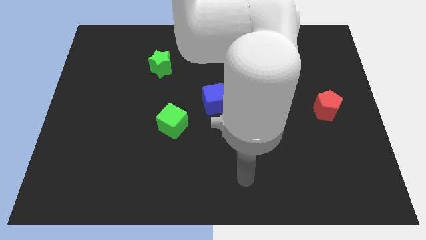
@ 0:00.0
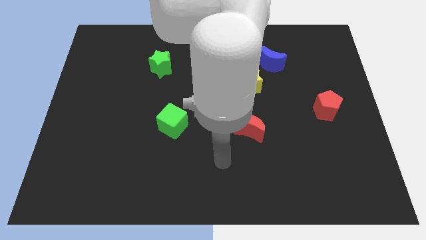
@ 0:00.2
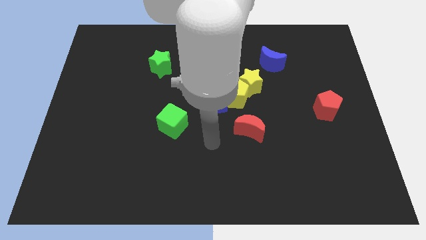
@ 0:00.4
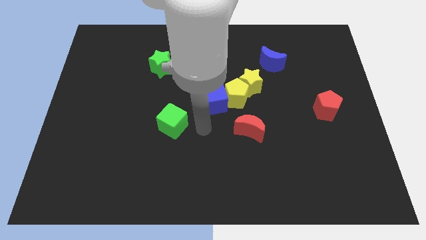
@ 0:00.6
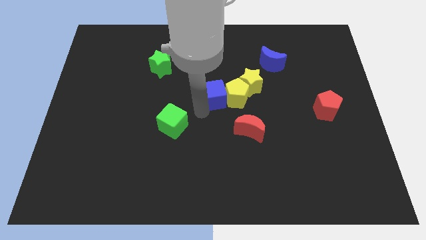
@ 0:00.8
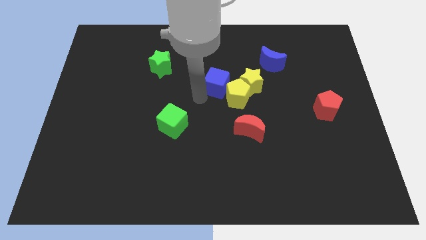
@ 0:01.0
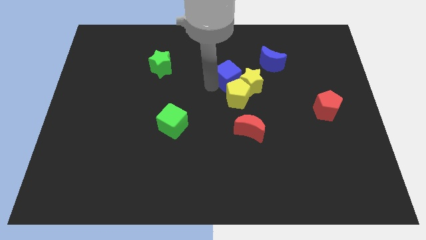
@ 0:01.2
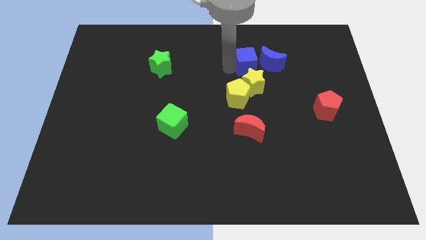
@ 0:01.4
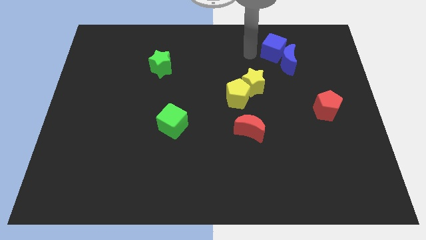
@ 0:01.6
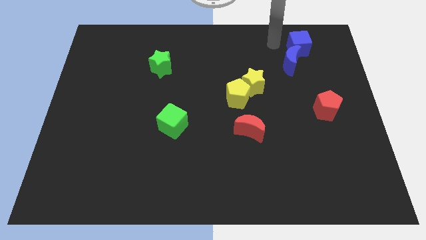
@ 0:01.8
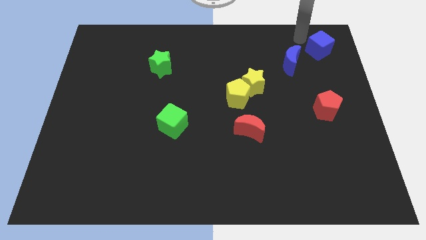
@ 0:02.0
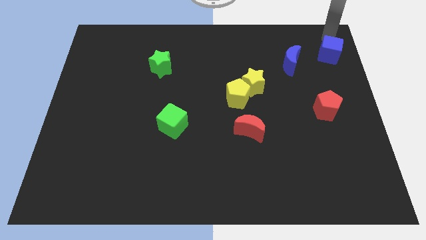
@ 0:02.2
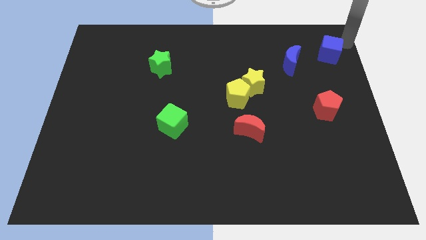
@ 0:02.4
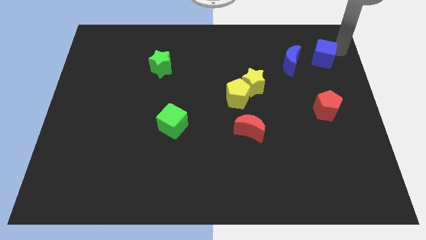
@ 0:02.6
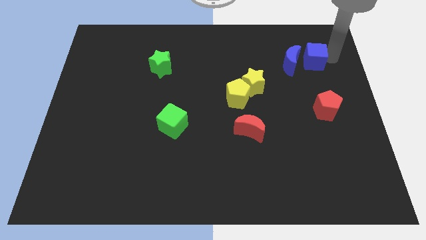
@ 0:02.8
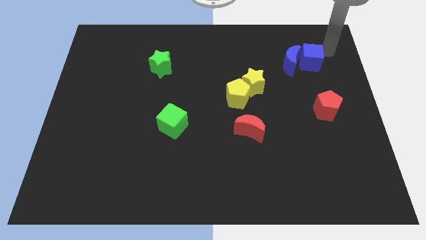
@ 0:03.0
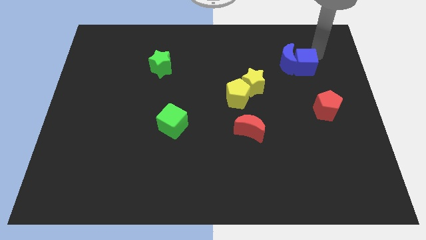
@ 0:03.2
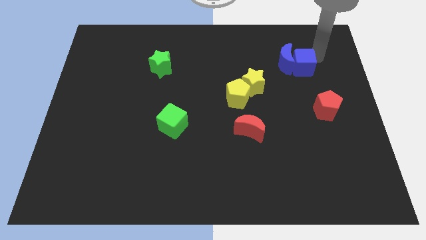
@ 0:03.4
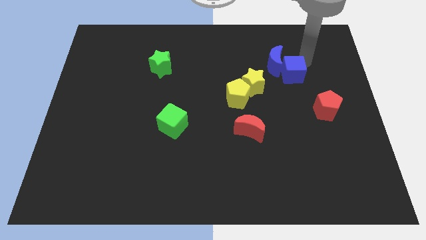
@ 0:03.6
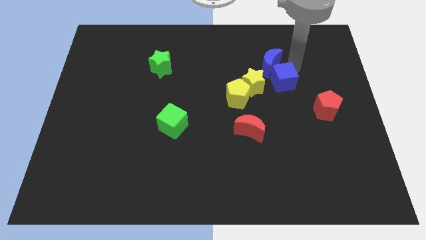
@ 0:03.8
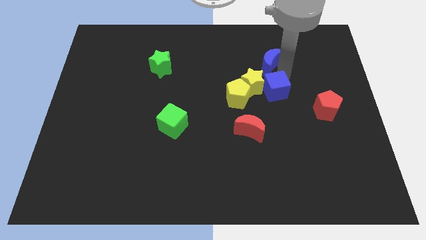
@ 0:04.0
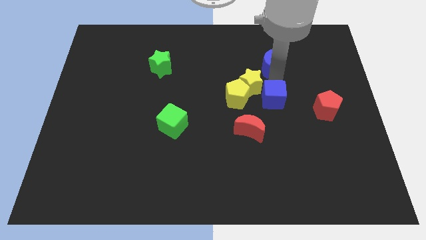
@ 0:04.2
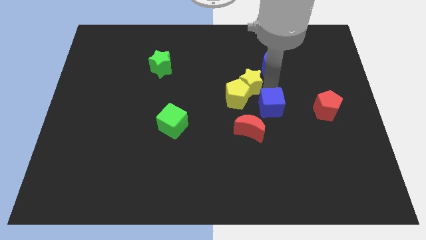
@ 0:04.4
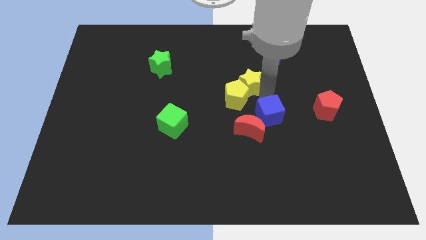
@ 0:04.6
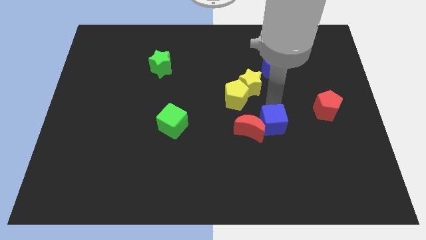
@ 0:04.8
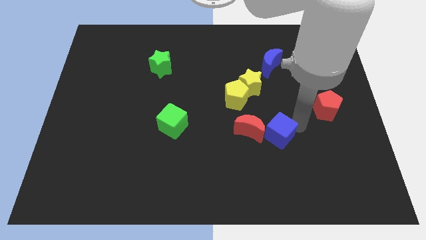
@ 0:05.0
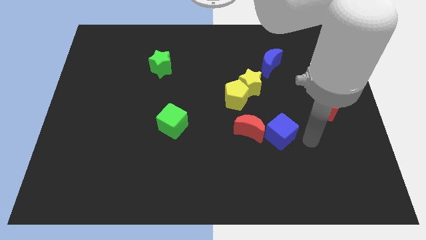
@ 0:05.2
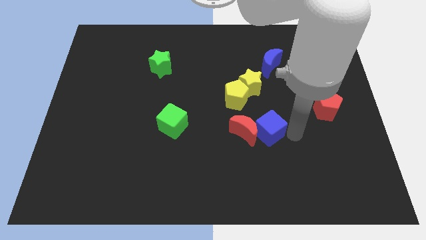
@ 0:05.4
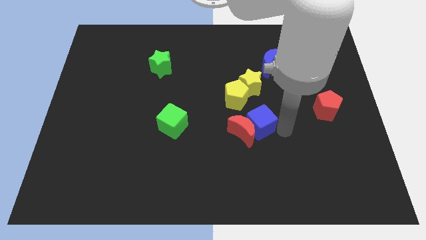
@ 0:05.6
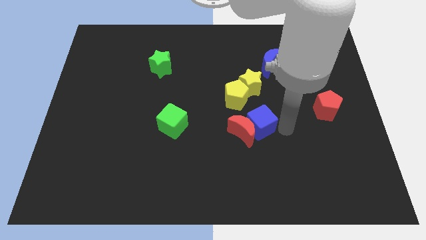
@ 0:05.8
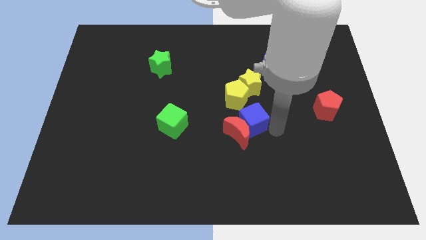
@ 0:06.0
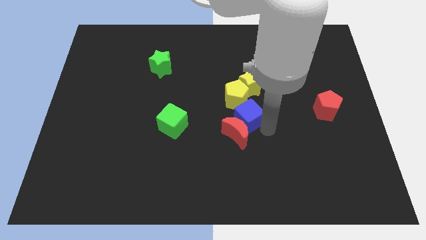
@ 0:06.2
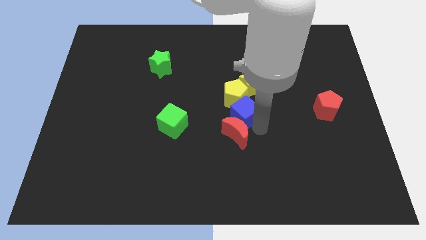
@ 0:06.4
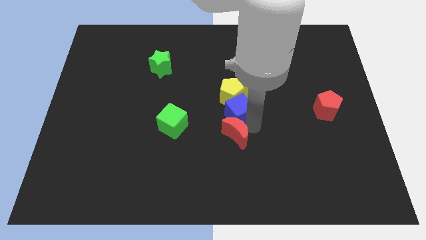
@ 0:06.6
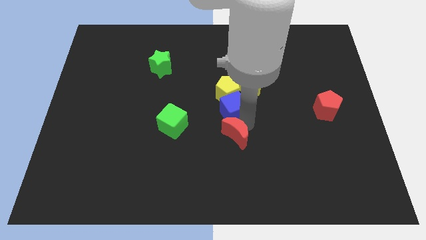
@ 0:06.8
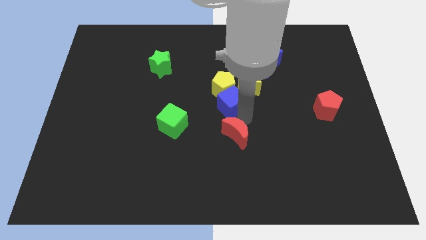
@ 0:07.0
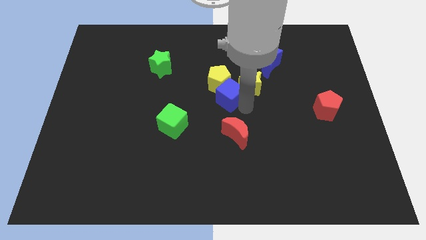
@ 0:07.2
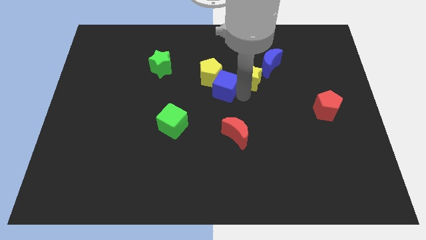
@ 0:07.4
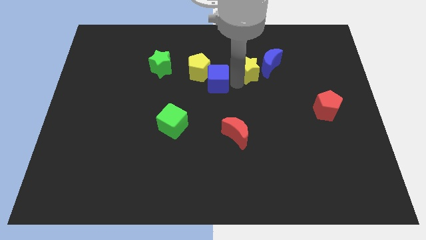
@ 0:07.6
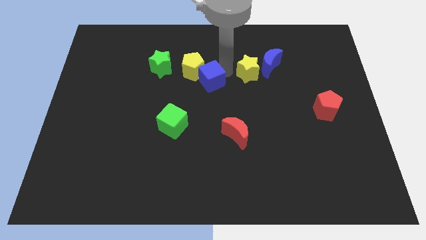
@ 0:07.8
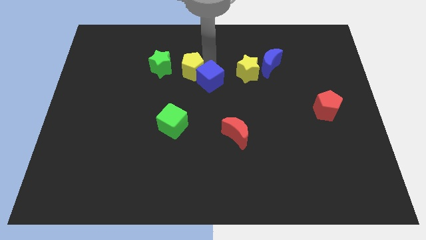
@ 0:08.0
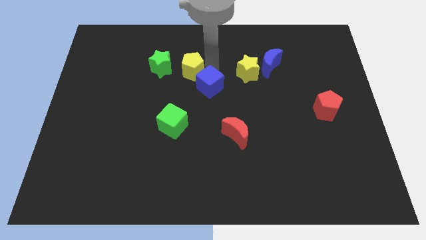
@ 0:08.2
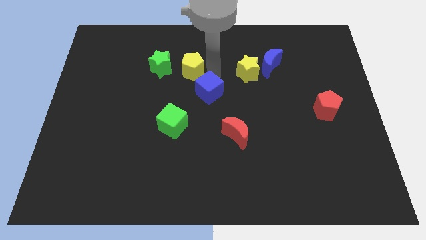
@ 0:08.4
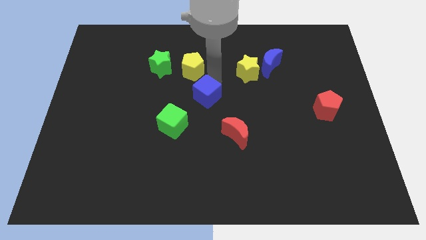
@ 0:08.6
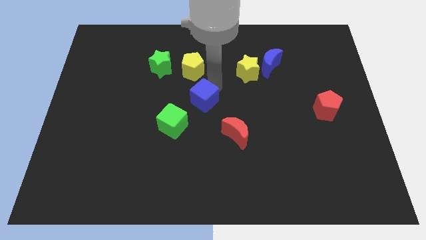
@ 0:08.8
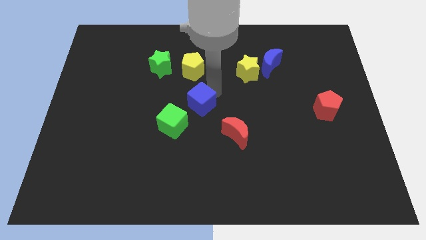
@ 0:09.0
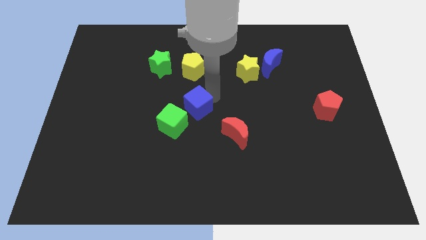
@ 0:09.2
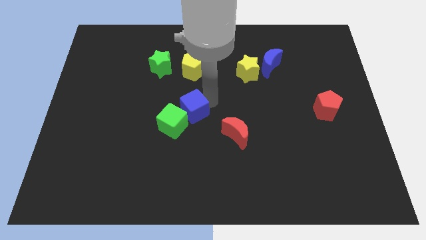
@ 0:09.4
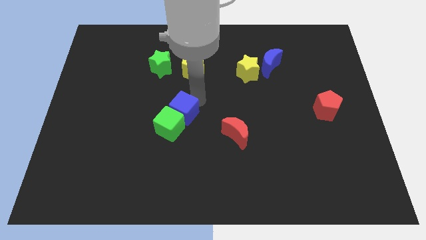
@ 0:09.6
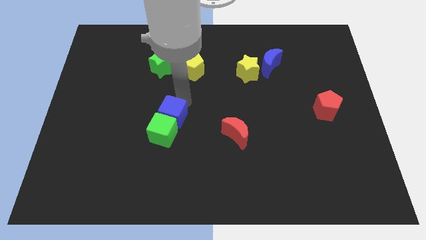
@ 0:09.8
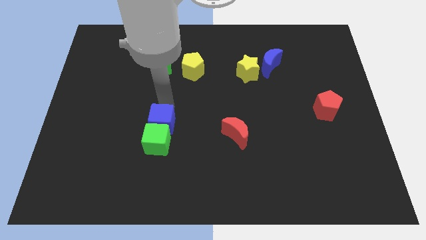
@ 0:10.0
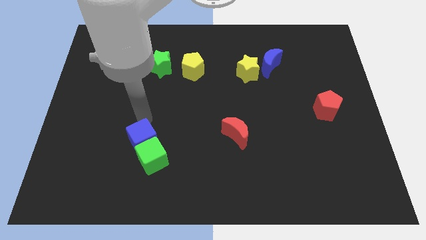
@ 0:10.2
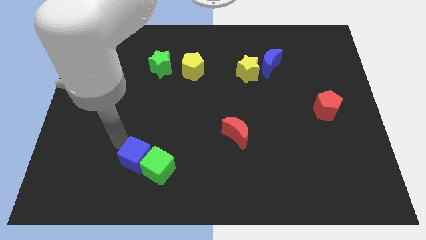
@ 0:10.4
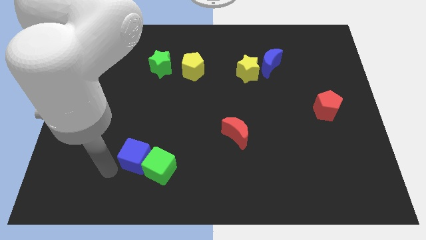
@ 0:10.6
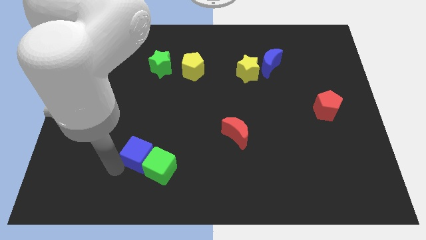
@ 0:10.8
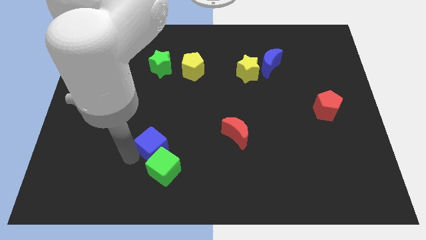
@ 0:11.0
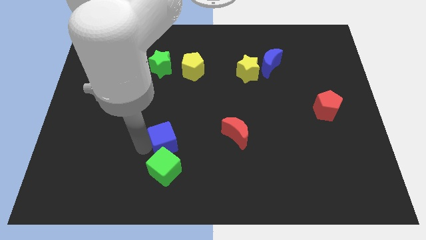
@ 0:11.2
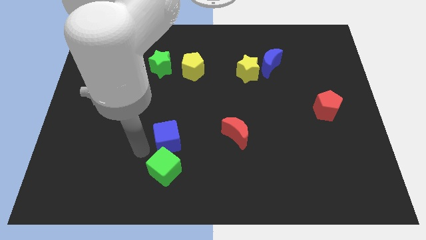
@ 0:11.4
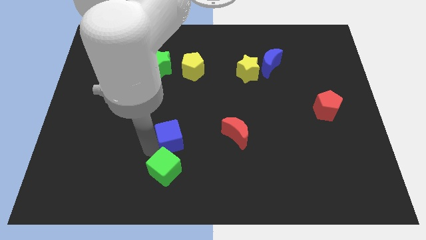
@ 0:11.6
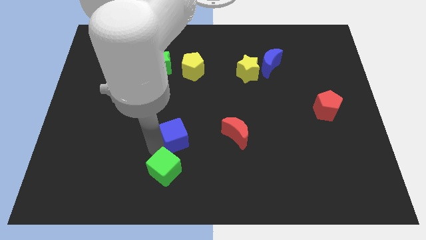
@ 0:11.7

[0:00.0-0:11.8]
slide the blue cube downwards a bit

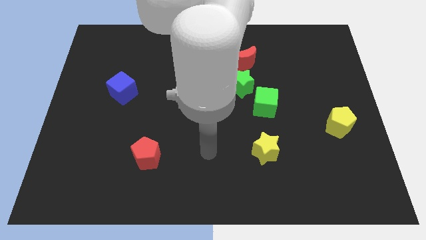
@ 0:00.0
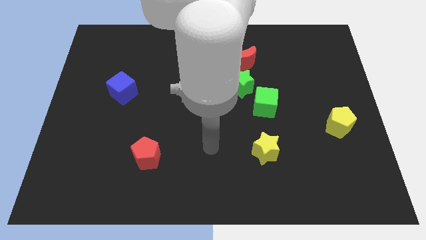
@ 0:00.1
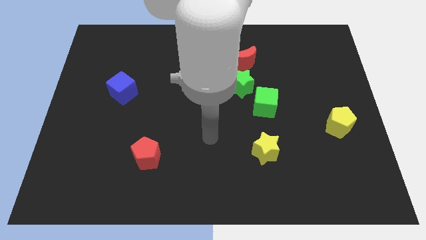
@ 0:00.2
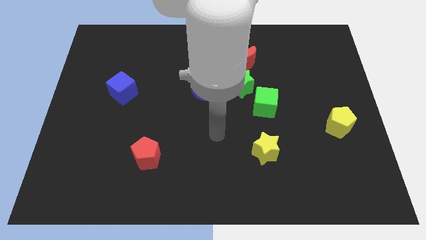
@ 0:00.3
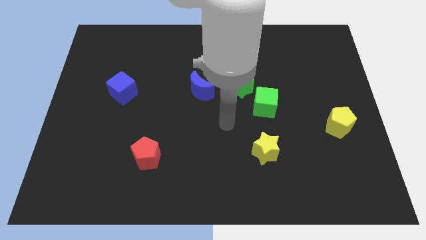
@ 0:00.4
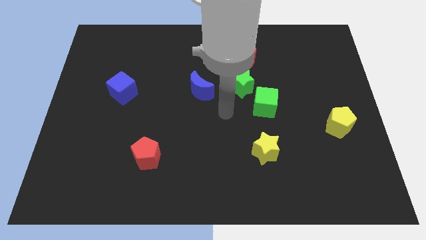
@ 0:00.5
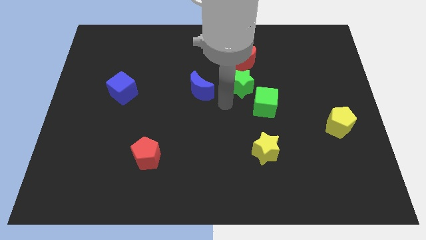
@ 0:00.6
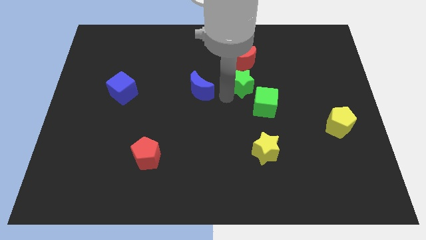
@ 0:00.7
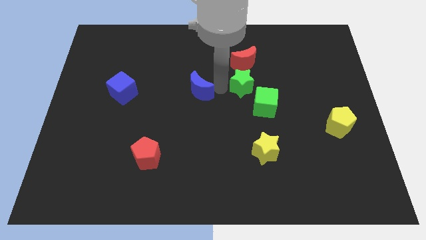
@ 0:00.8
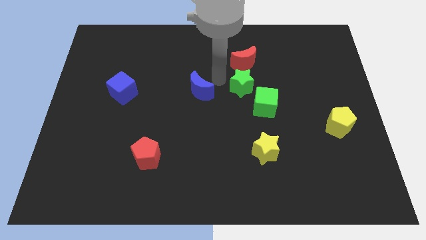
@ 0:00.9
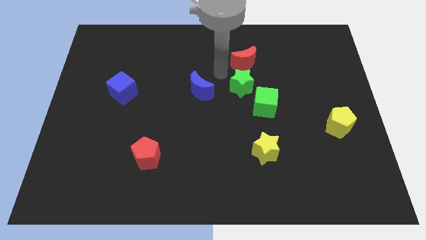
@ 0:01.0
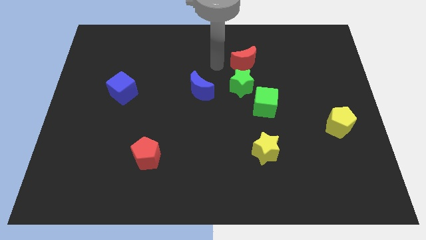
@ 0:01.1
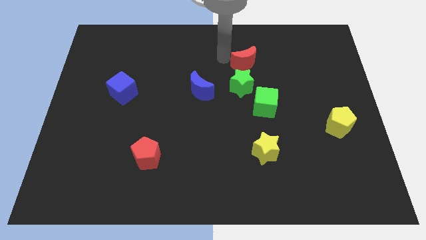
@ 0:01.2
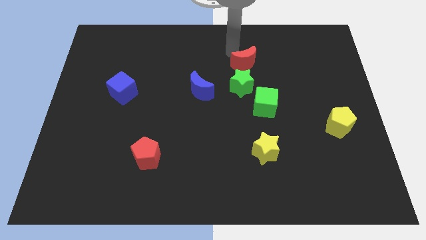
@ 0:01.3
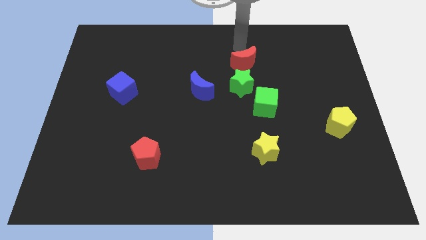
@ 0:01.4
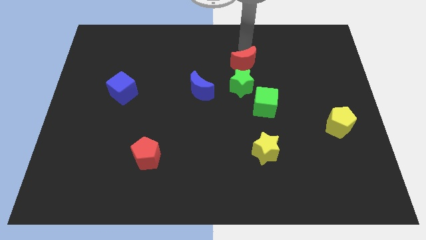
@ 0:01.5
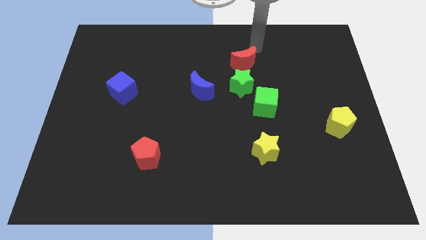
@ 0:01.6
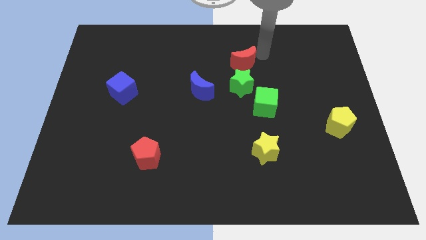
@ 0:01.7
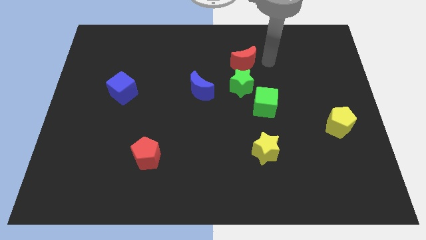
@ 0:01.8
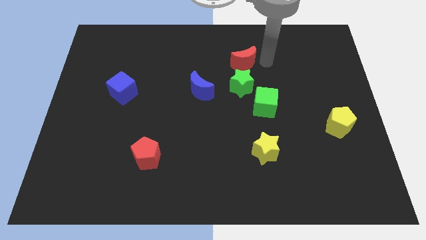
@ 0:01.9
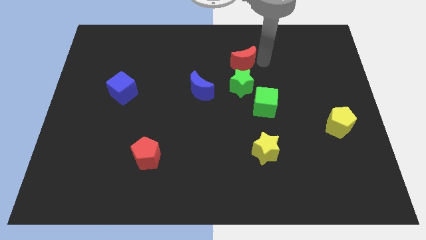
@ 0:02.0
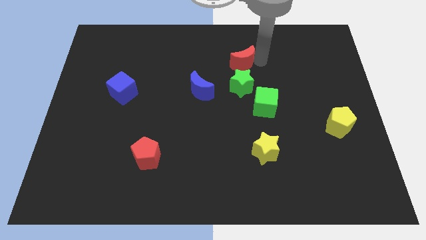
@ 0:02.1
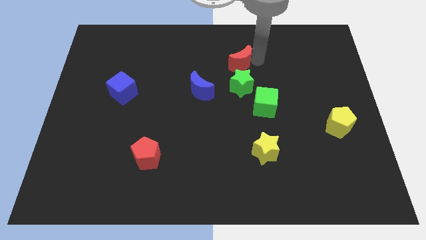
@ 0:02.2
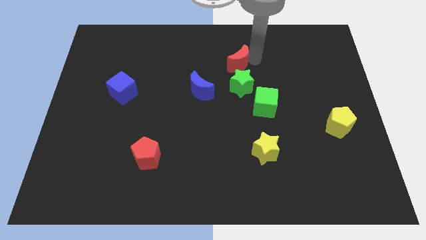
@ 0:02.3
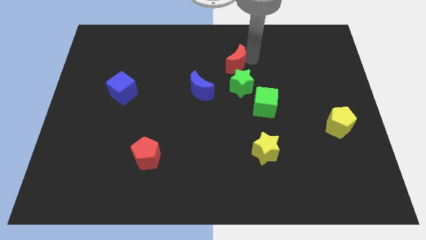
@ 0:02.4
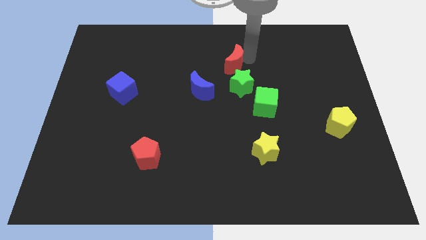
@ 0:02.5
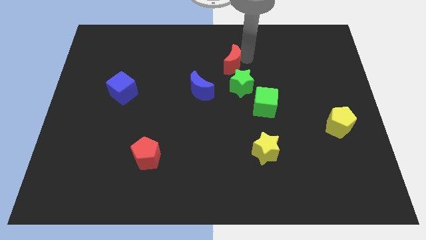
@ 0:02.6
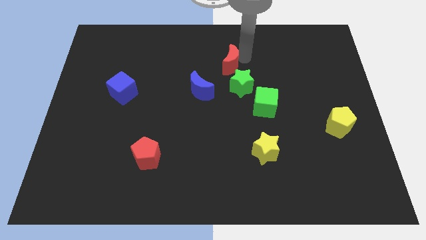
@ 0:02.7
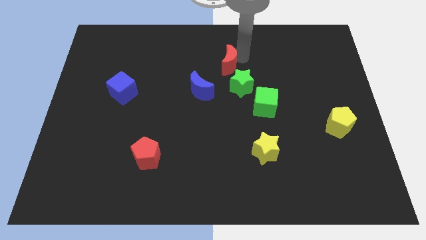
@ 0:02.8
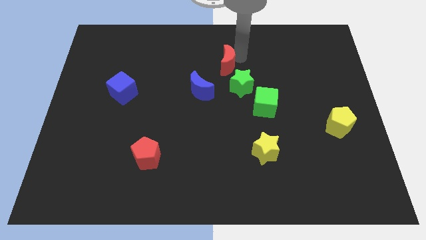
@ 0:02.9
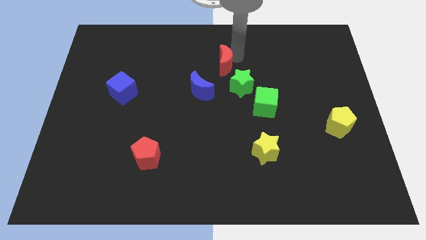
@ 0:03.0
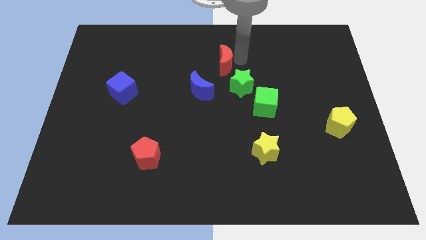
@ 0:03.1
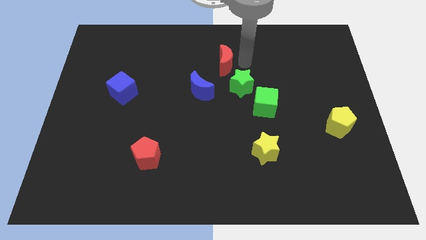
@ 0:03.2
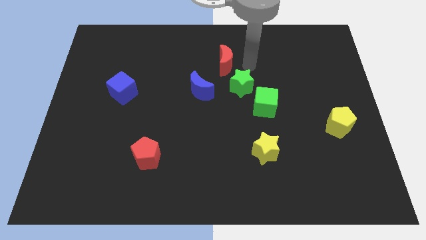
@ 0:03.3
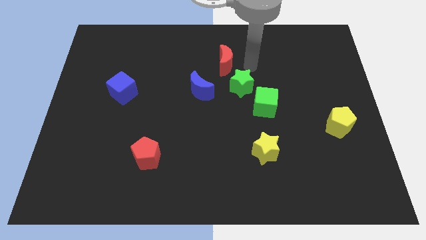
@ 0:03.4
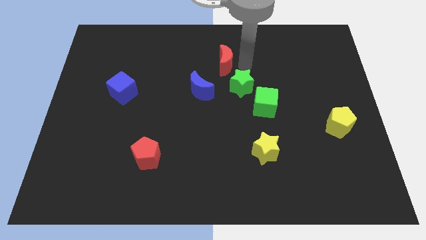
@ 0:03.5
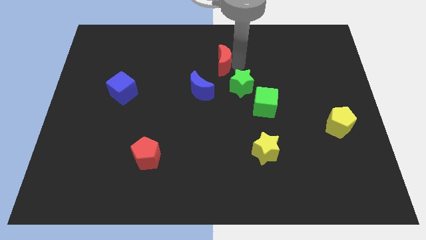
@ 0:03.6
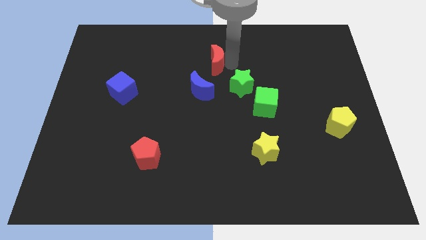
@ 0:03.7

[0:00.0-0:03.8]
slightly move the red moon to the left
